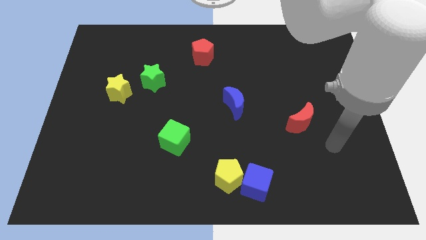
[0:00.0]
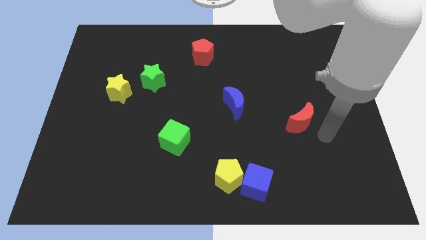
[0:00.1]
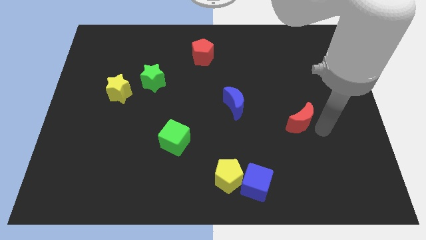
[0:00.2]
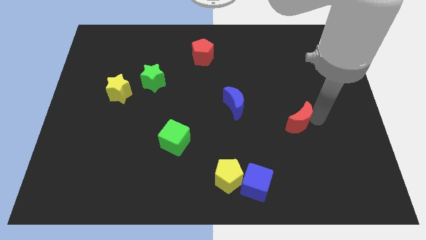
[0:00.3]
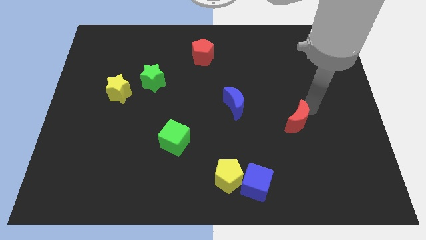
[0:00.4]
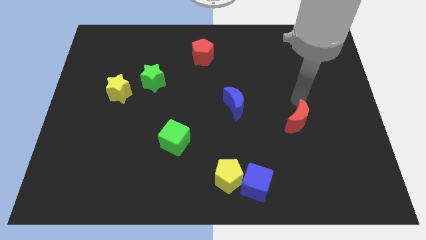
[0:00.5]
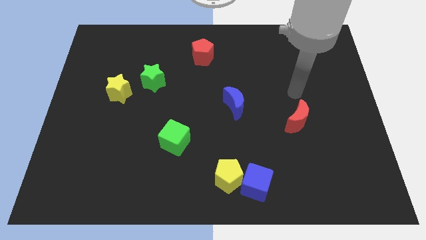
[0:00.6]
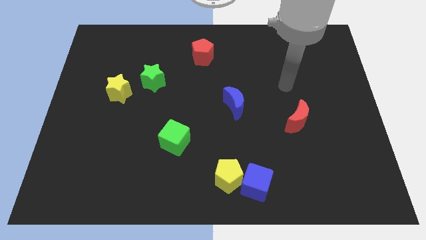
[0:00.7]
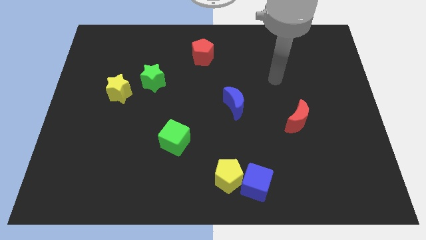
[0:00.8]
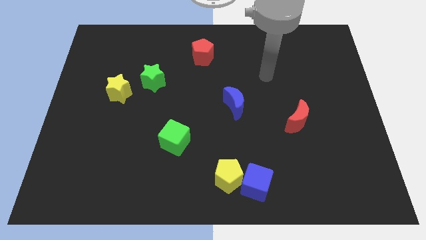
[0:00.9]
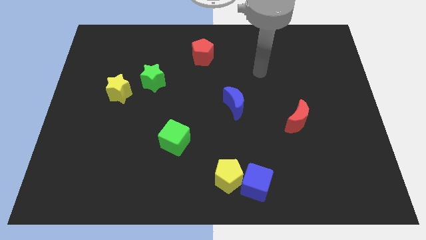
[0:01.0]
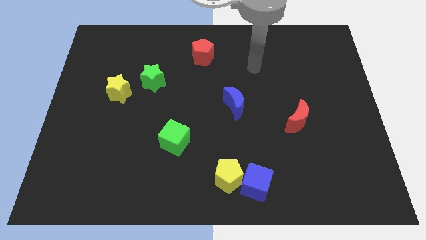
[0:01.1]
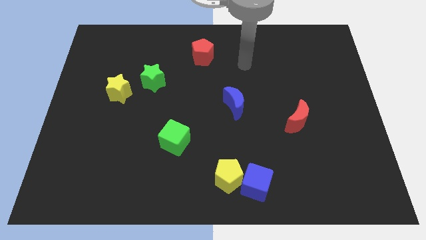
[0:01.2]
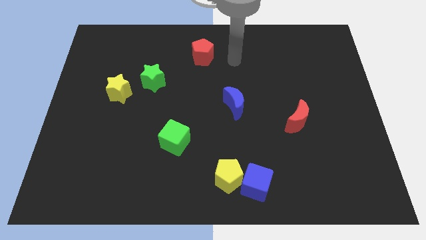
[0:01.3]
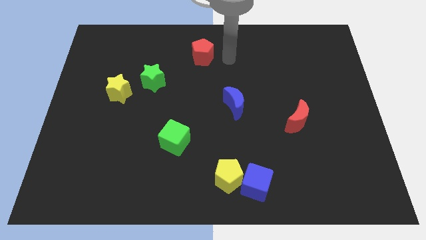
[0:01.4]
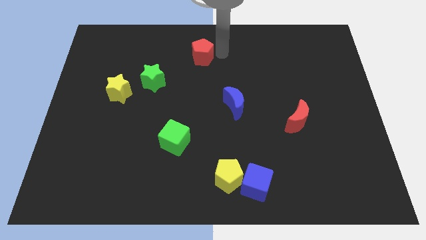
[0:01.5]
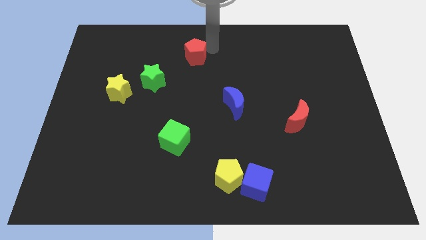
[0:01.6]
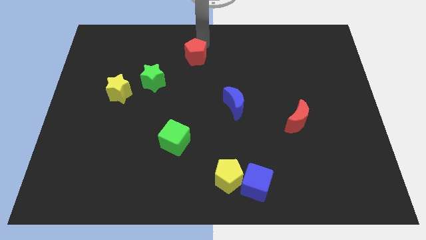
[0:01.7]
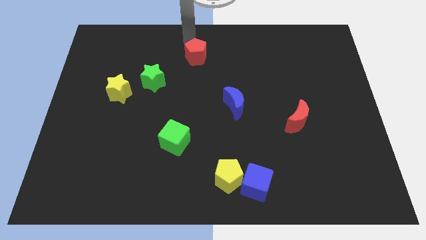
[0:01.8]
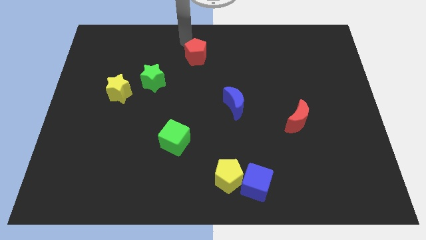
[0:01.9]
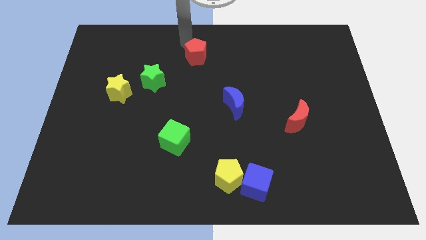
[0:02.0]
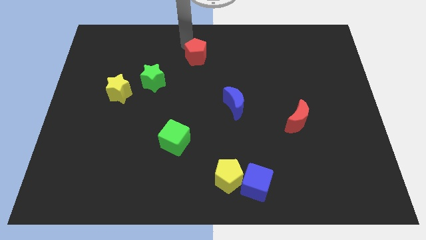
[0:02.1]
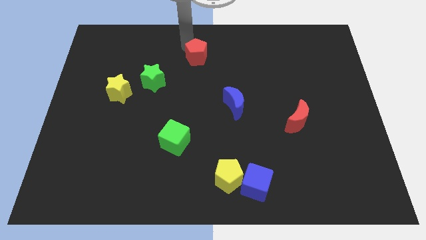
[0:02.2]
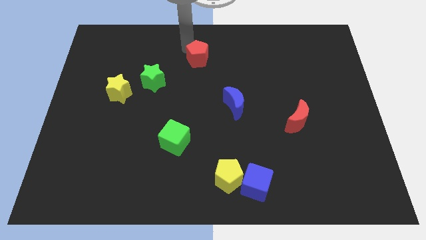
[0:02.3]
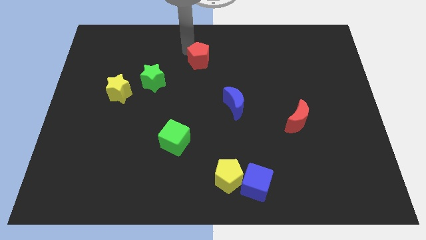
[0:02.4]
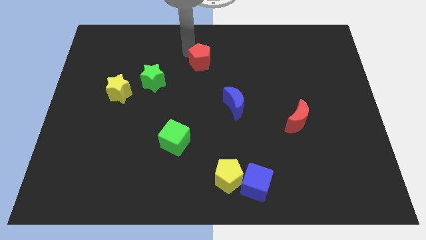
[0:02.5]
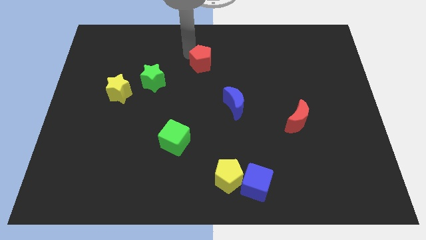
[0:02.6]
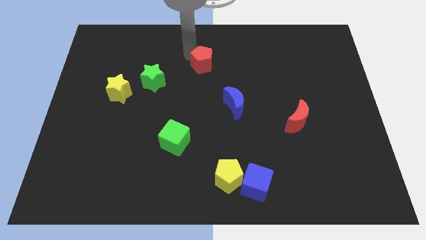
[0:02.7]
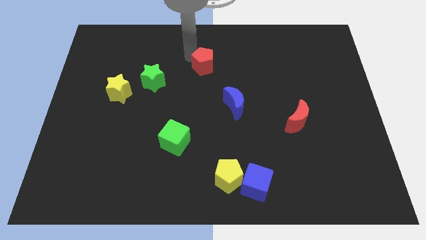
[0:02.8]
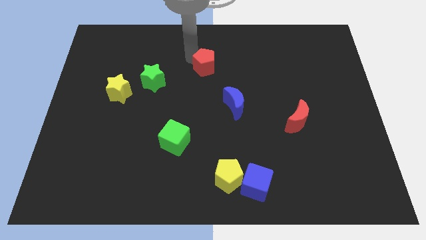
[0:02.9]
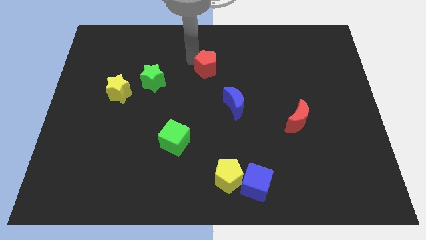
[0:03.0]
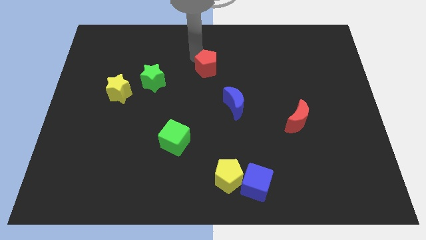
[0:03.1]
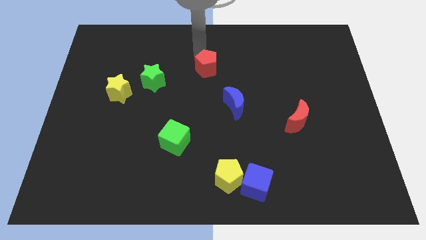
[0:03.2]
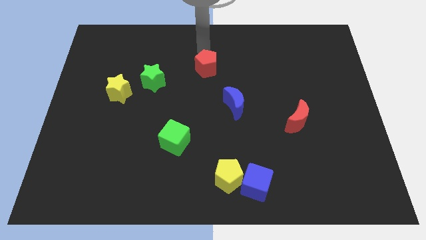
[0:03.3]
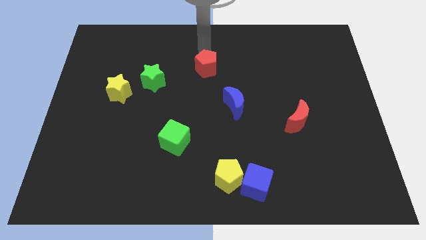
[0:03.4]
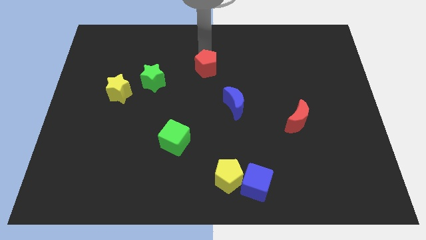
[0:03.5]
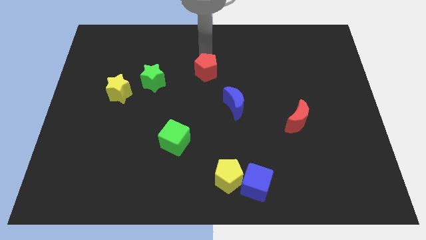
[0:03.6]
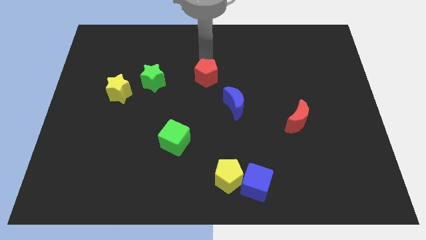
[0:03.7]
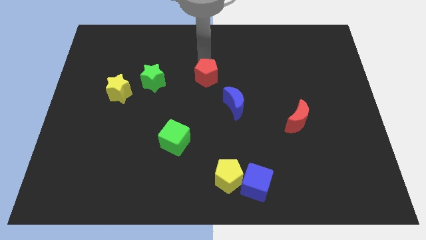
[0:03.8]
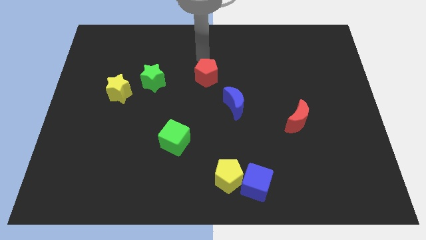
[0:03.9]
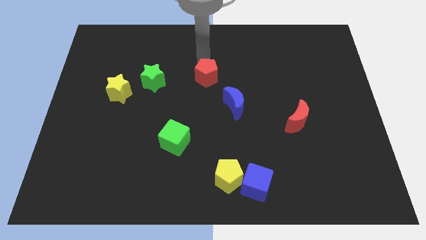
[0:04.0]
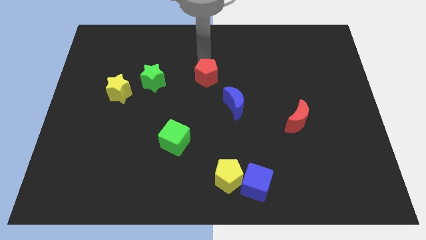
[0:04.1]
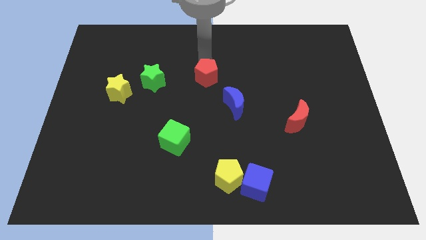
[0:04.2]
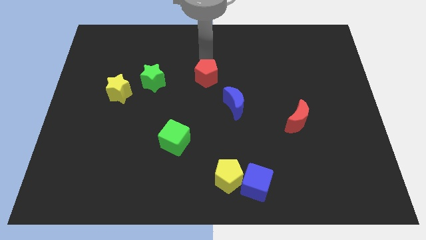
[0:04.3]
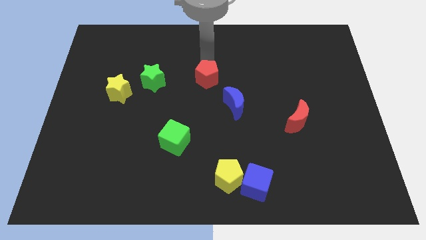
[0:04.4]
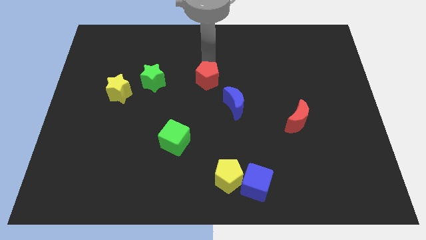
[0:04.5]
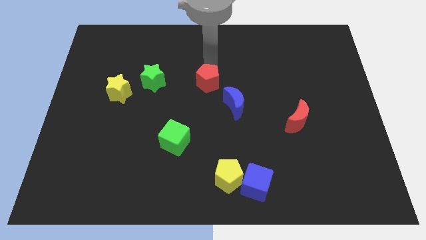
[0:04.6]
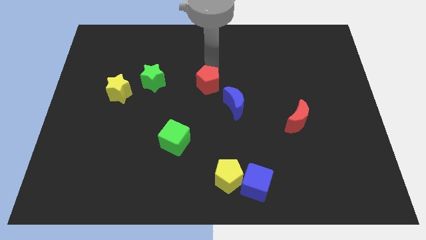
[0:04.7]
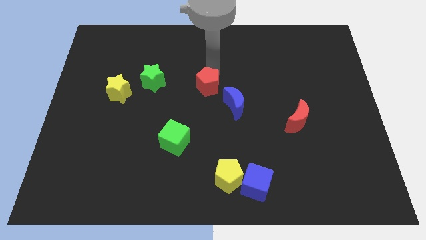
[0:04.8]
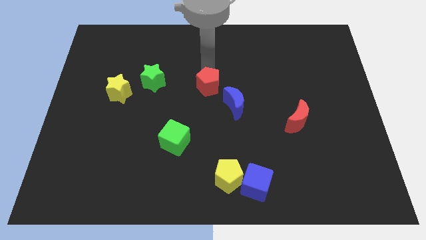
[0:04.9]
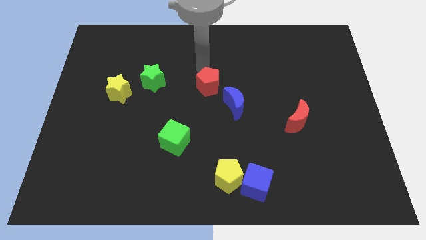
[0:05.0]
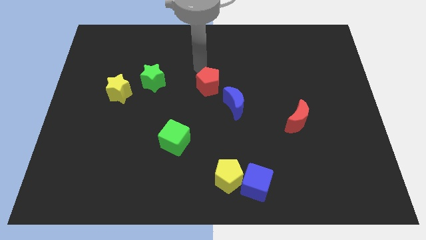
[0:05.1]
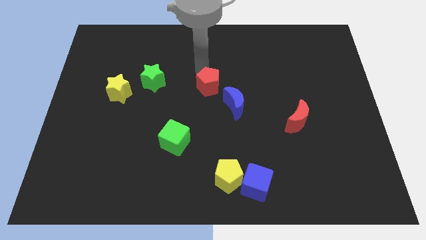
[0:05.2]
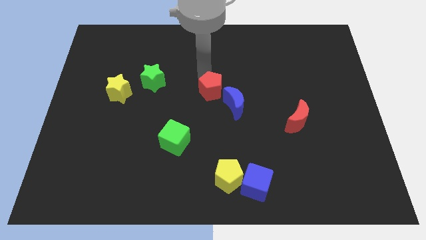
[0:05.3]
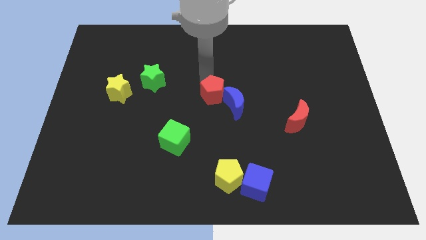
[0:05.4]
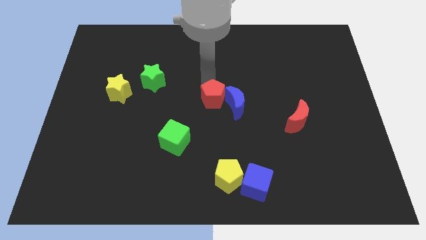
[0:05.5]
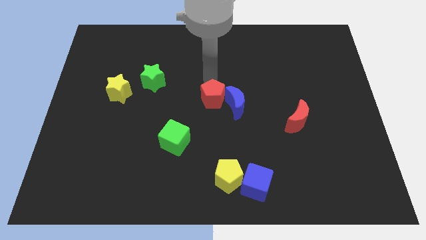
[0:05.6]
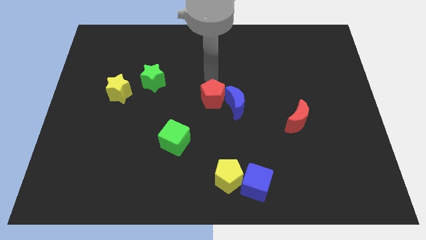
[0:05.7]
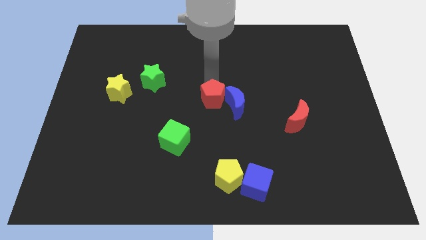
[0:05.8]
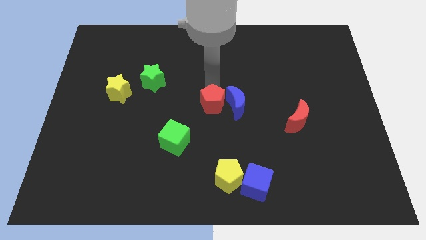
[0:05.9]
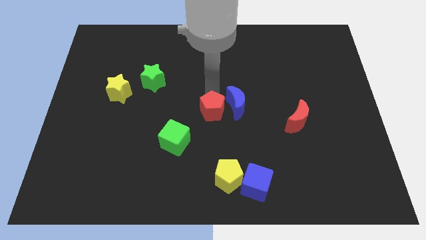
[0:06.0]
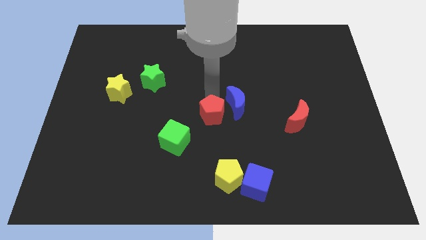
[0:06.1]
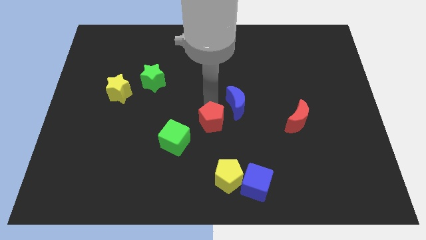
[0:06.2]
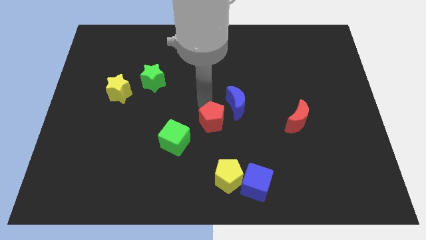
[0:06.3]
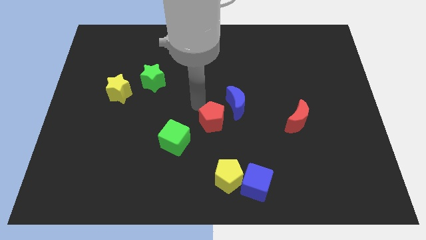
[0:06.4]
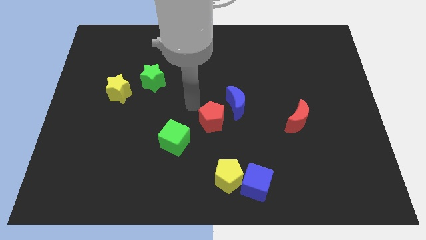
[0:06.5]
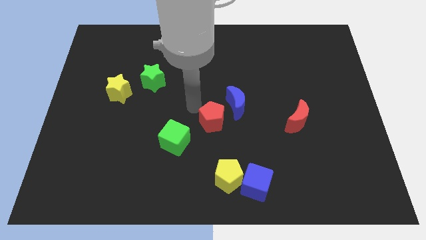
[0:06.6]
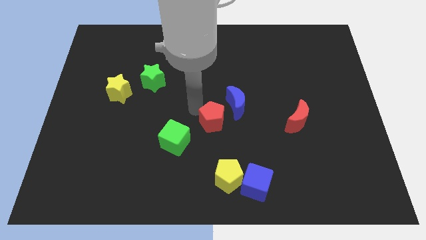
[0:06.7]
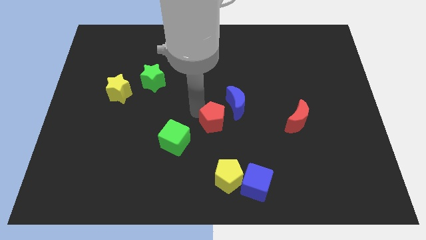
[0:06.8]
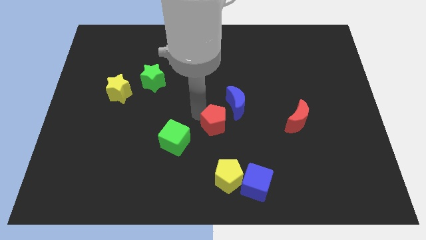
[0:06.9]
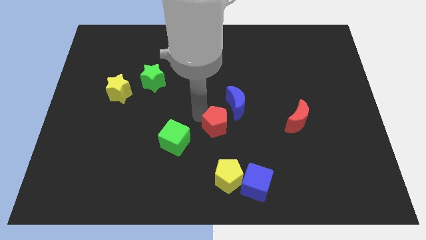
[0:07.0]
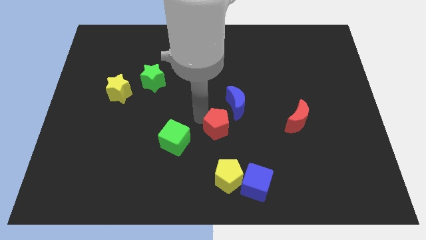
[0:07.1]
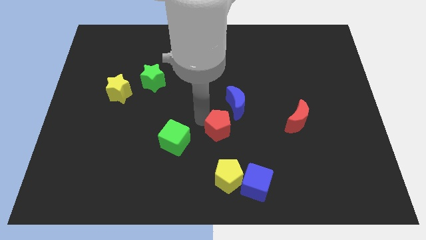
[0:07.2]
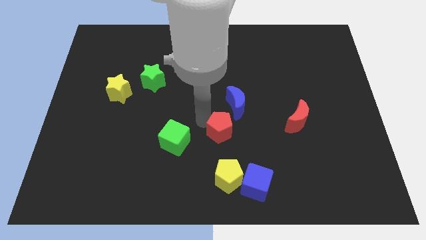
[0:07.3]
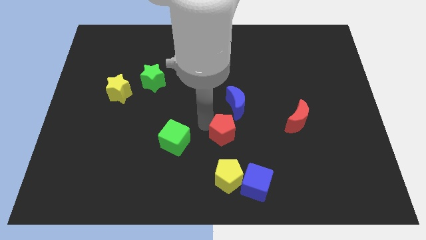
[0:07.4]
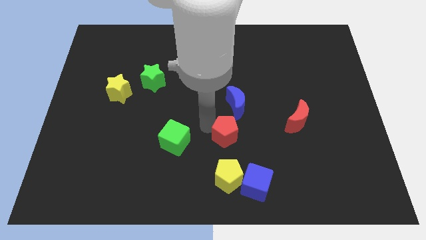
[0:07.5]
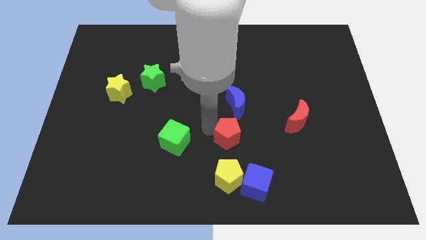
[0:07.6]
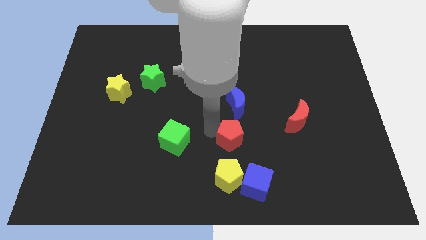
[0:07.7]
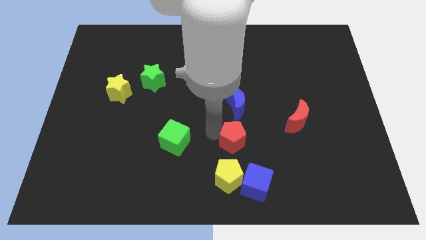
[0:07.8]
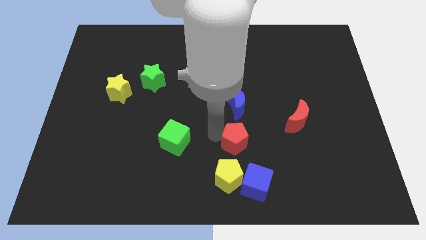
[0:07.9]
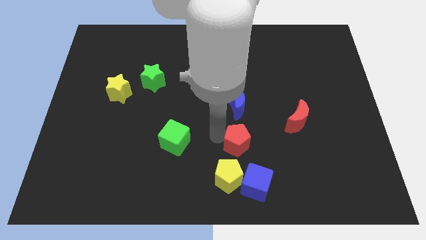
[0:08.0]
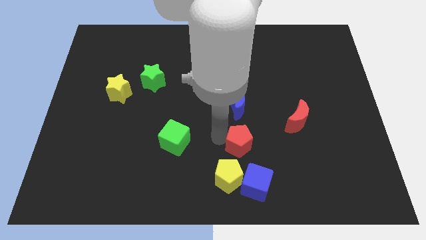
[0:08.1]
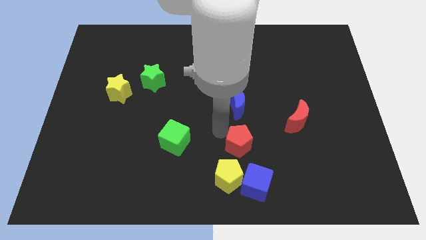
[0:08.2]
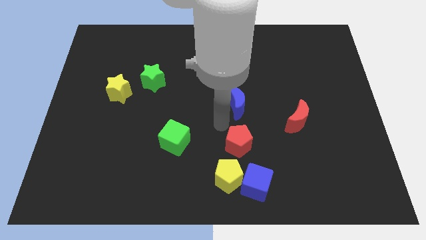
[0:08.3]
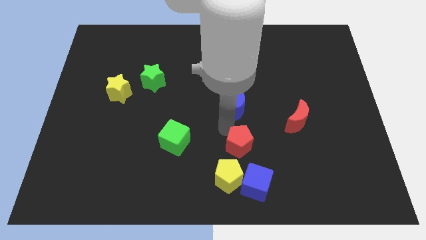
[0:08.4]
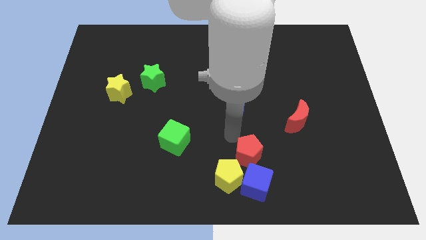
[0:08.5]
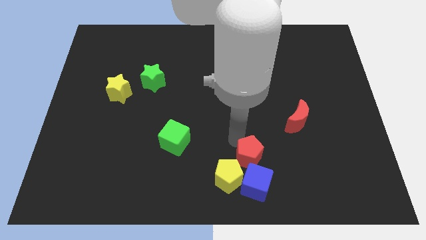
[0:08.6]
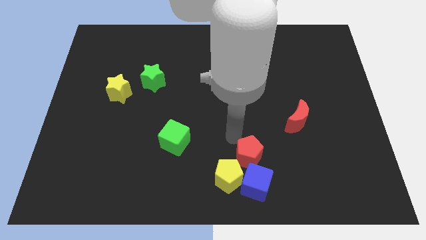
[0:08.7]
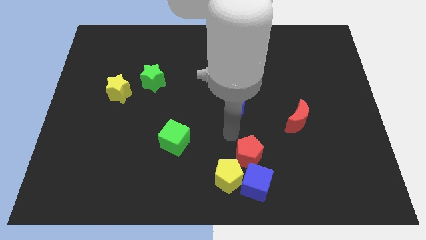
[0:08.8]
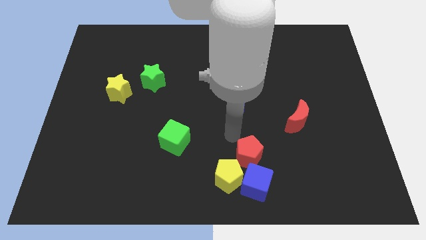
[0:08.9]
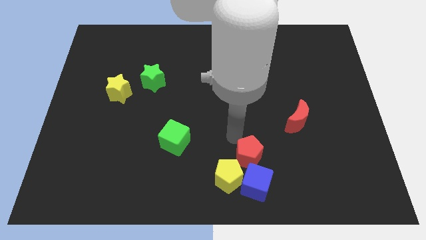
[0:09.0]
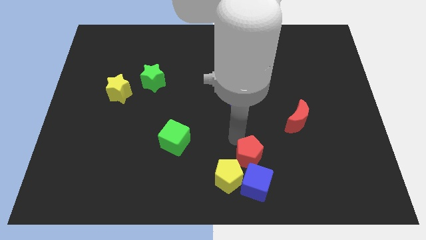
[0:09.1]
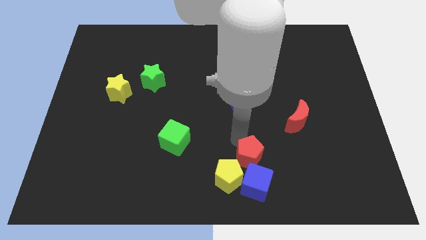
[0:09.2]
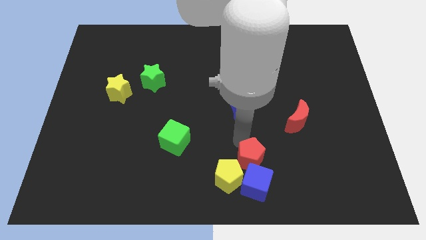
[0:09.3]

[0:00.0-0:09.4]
slide the red pentagon to the blue cube
